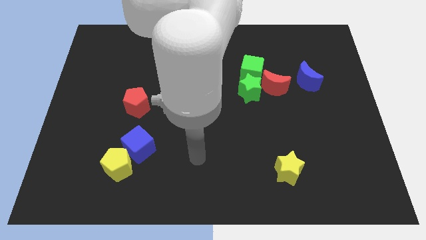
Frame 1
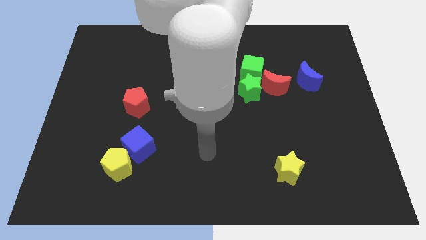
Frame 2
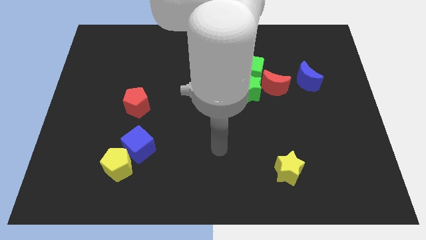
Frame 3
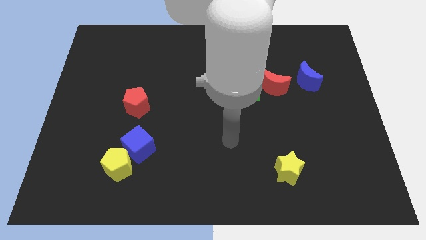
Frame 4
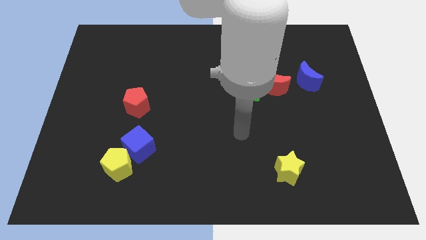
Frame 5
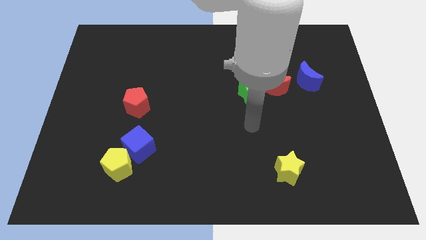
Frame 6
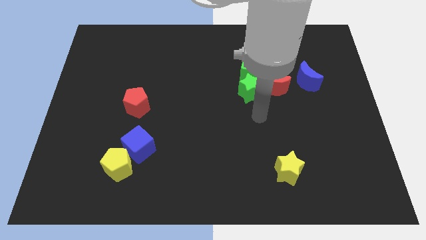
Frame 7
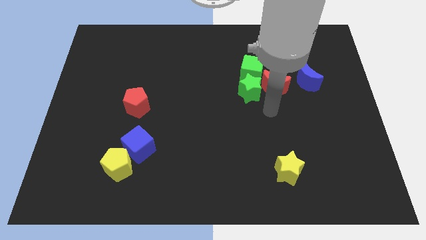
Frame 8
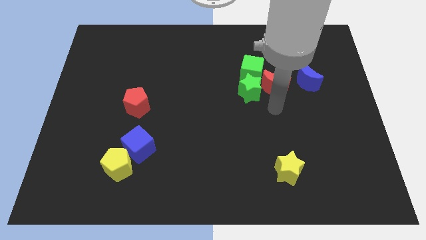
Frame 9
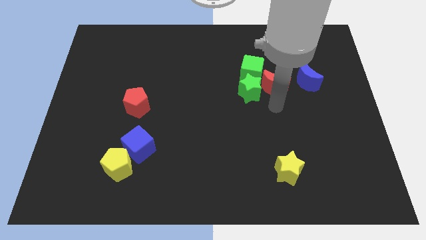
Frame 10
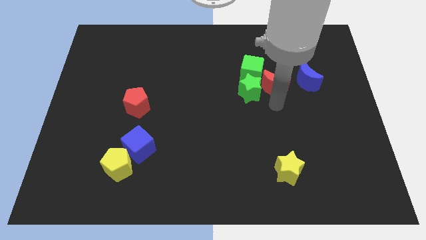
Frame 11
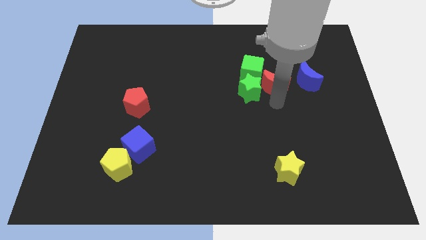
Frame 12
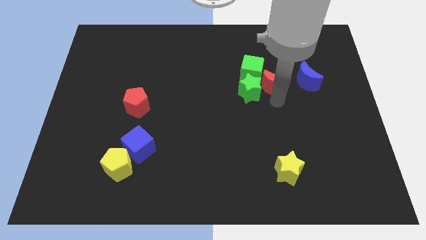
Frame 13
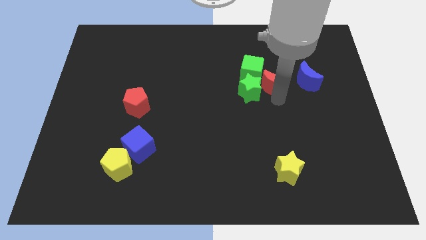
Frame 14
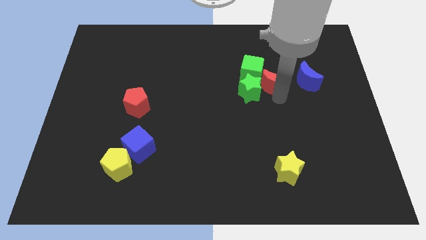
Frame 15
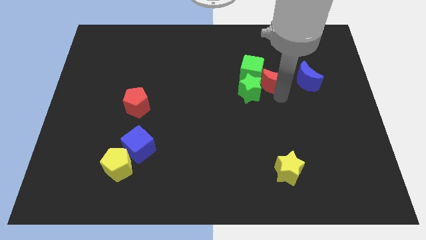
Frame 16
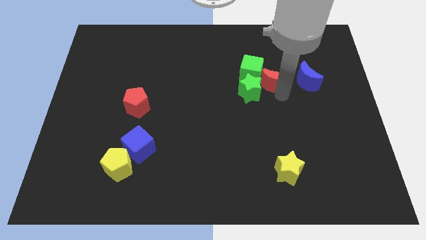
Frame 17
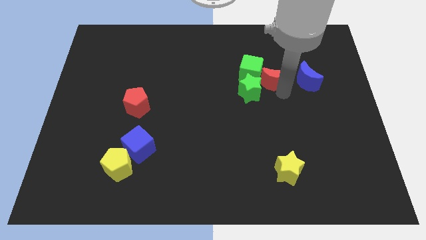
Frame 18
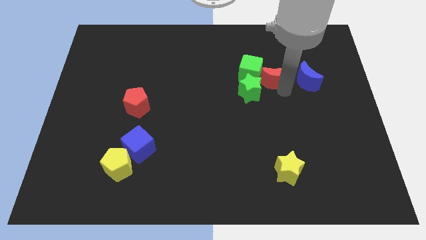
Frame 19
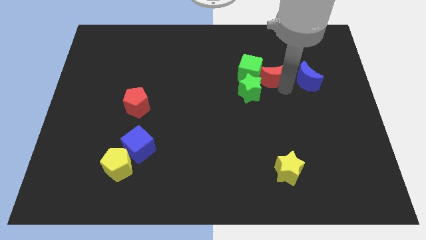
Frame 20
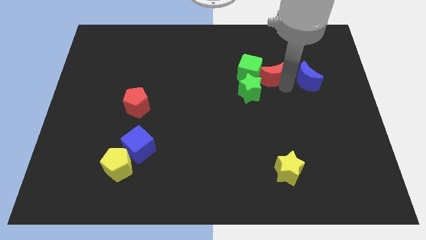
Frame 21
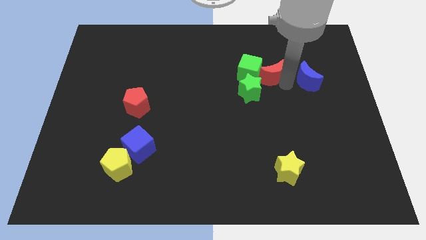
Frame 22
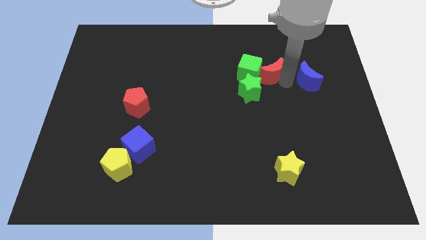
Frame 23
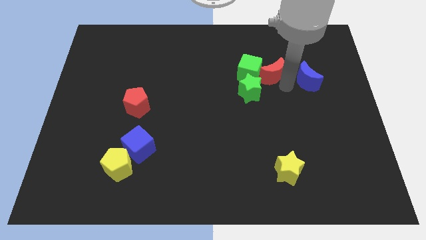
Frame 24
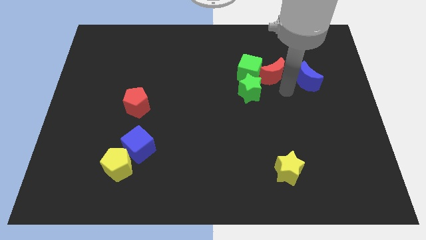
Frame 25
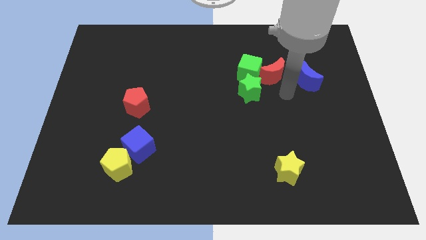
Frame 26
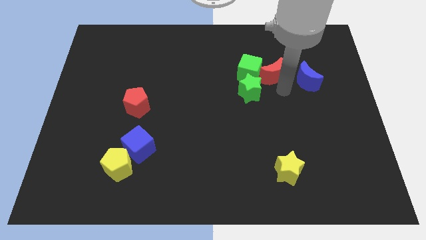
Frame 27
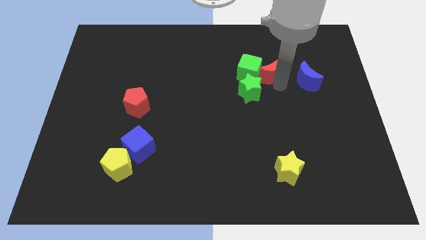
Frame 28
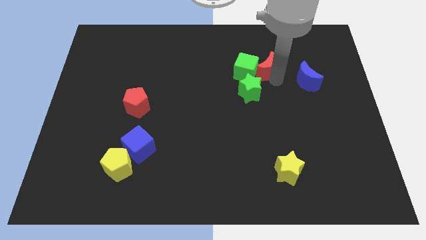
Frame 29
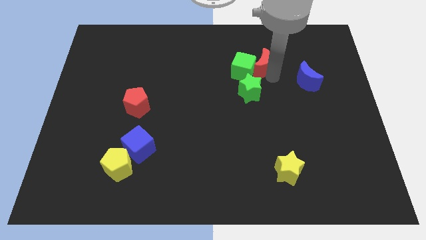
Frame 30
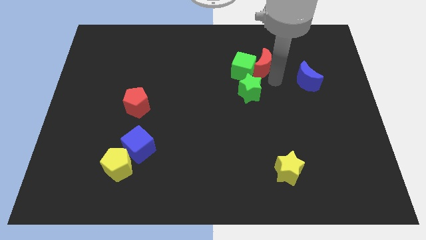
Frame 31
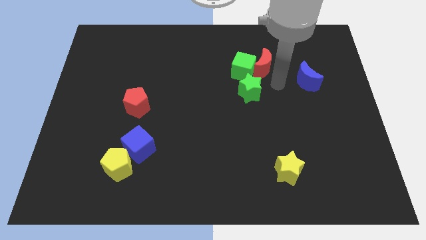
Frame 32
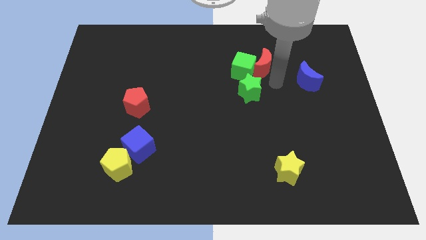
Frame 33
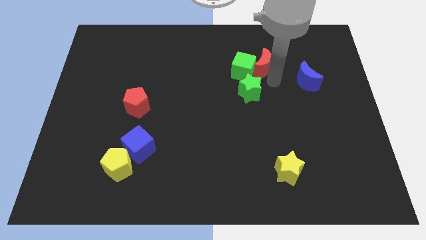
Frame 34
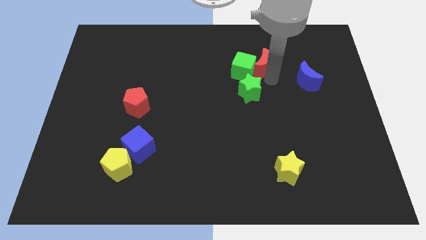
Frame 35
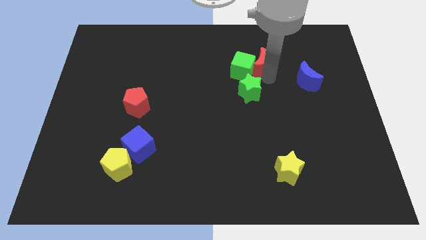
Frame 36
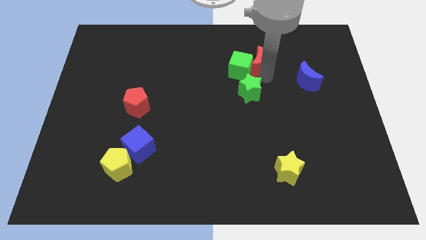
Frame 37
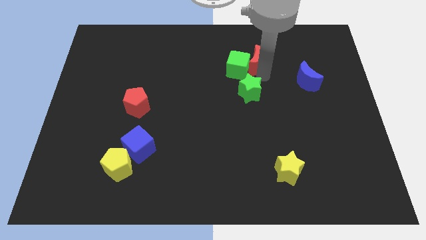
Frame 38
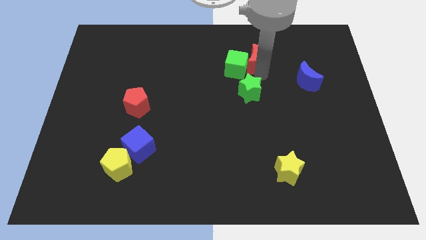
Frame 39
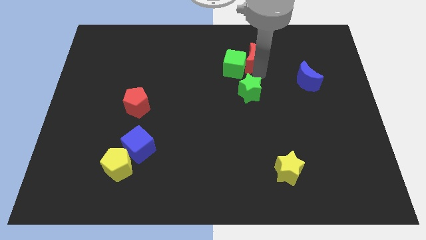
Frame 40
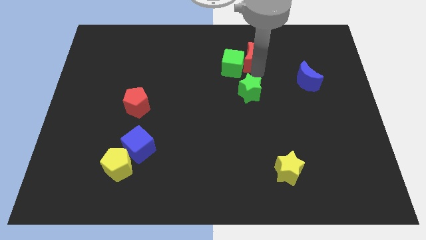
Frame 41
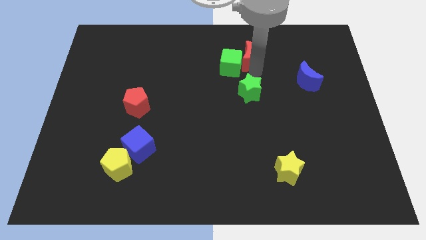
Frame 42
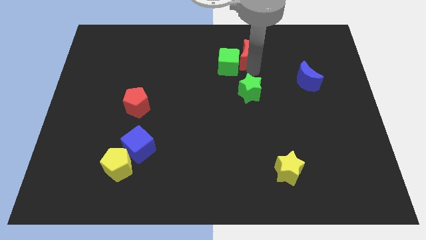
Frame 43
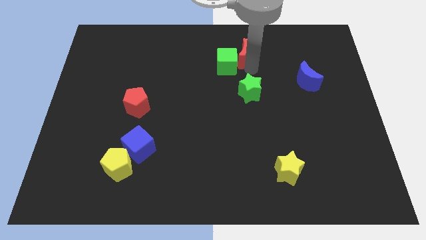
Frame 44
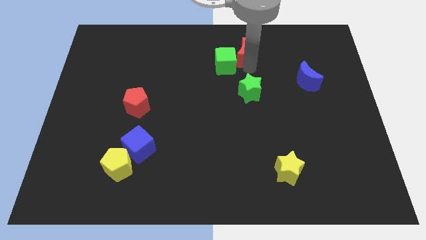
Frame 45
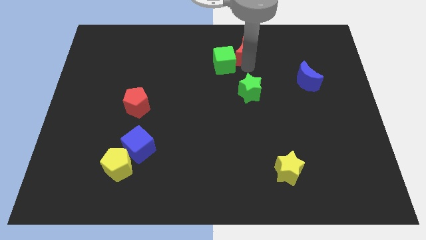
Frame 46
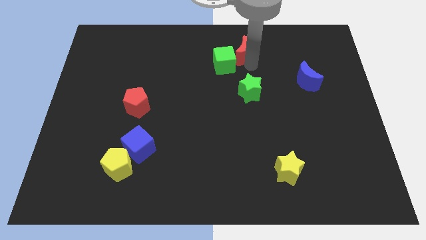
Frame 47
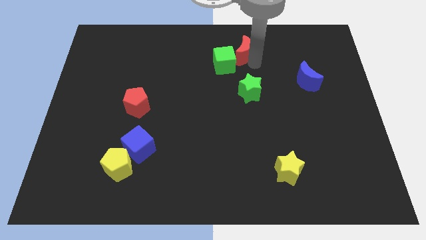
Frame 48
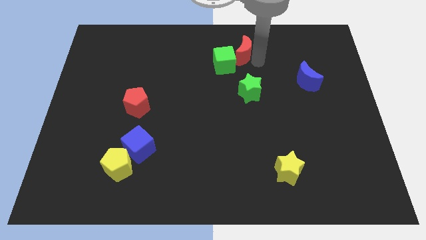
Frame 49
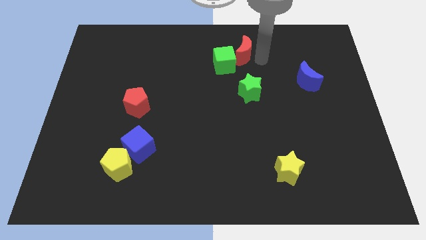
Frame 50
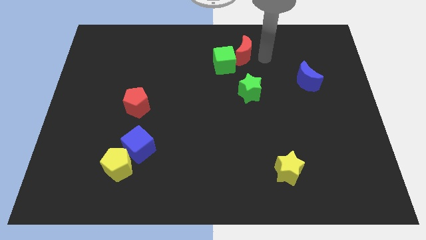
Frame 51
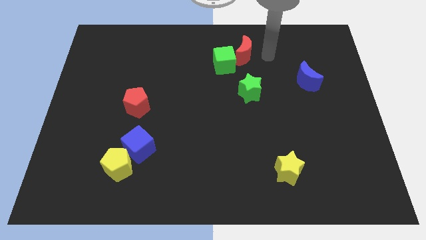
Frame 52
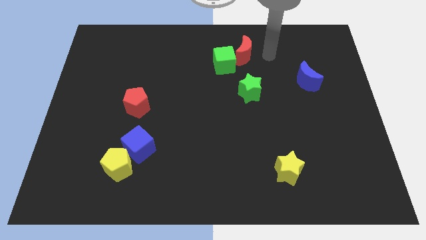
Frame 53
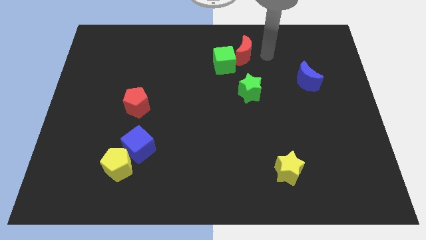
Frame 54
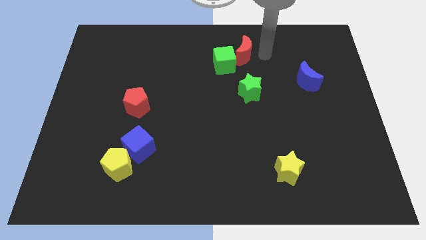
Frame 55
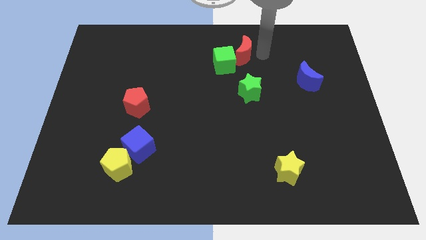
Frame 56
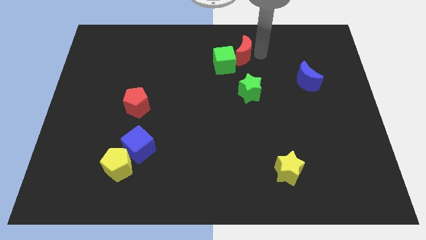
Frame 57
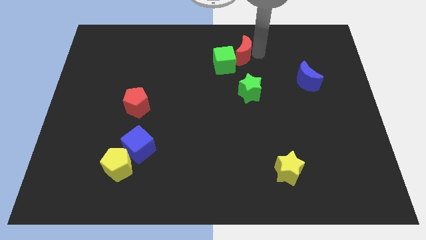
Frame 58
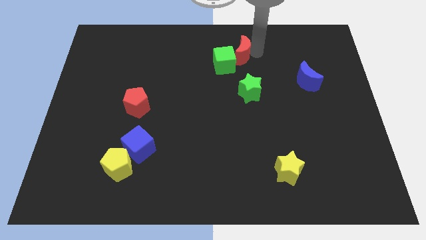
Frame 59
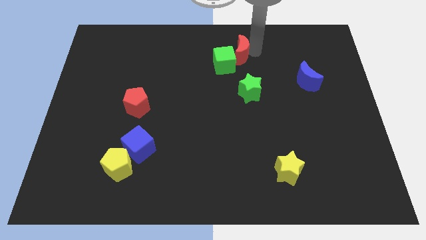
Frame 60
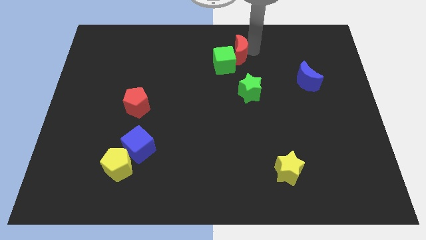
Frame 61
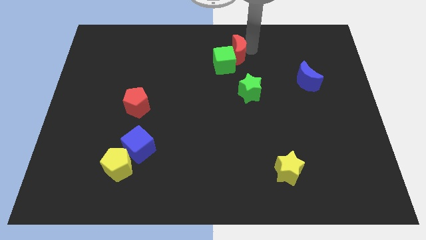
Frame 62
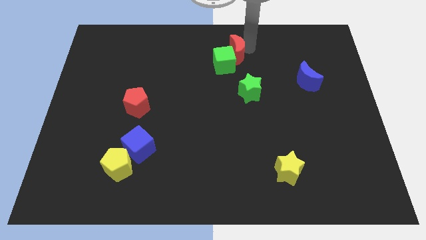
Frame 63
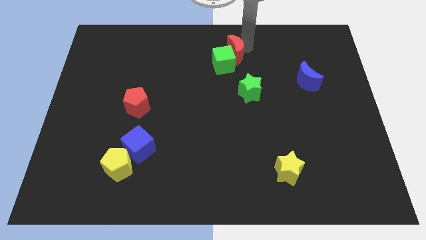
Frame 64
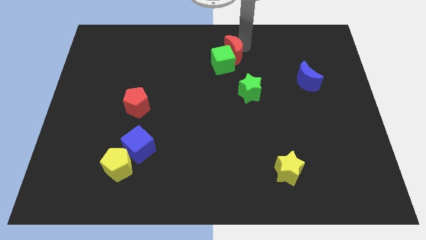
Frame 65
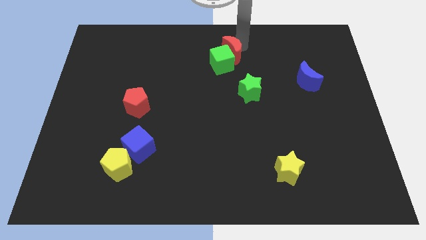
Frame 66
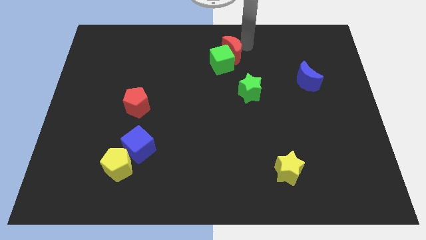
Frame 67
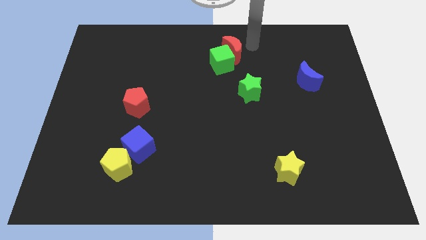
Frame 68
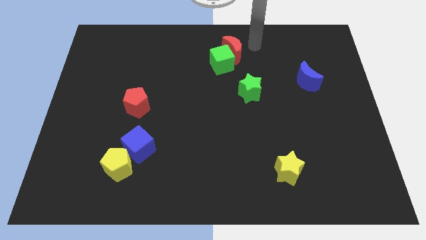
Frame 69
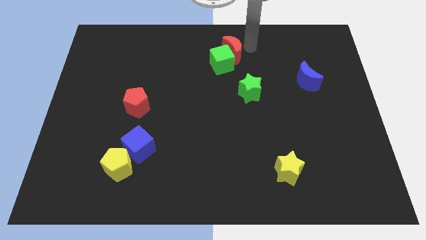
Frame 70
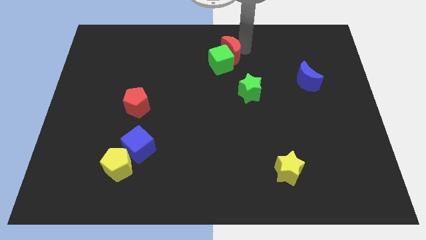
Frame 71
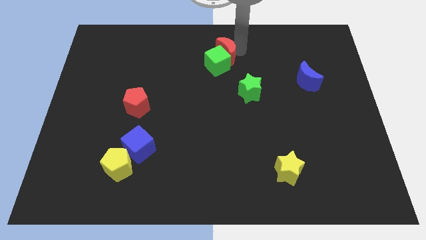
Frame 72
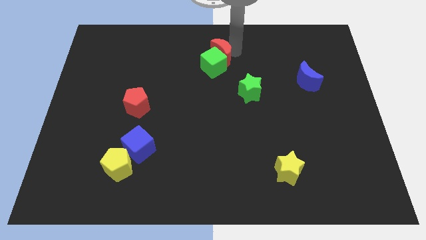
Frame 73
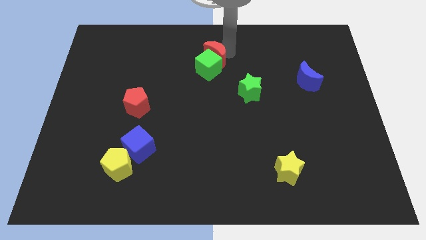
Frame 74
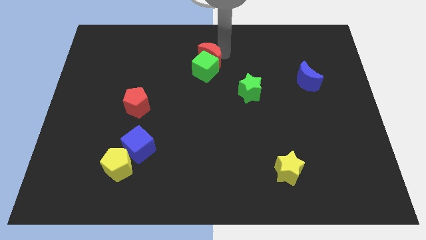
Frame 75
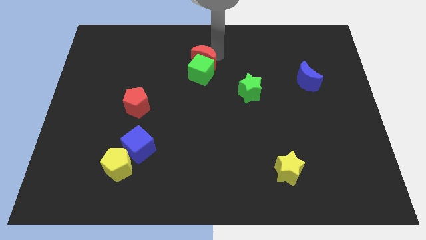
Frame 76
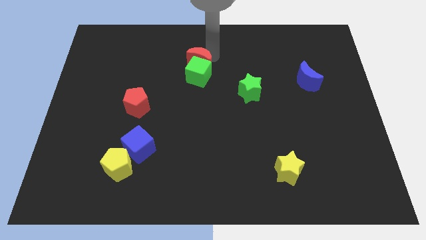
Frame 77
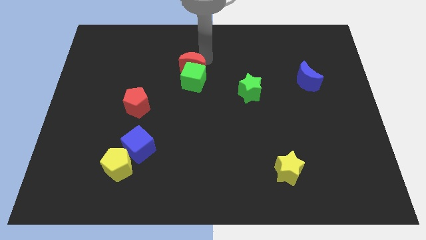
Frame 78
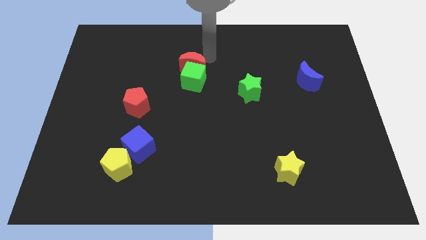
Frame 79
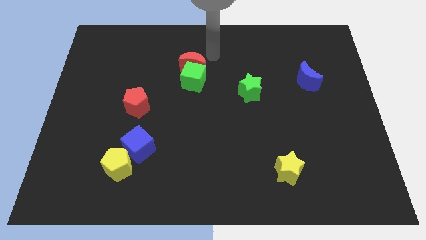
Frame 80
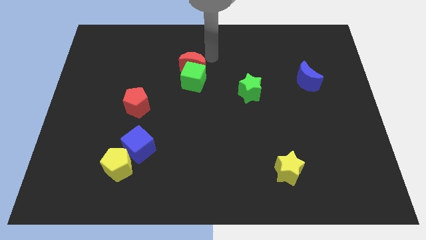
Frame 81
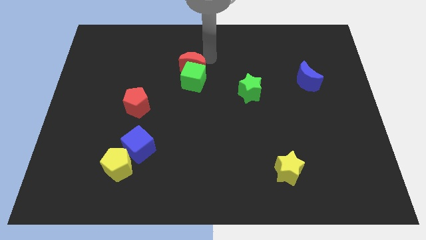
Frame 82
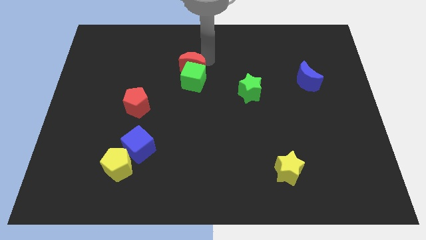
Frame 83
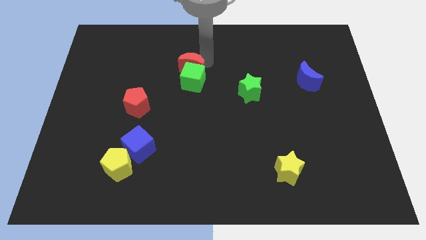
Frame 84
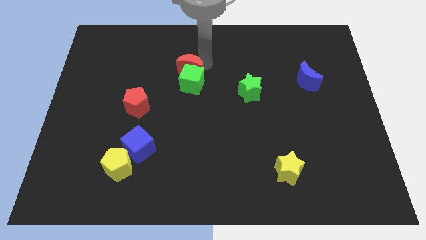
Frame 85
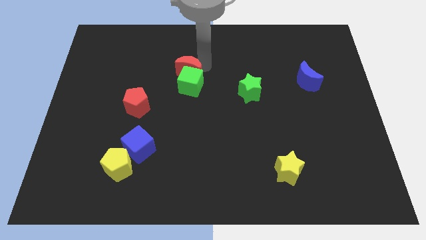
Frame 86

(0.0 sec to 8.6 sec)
move the red moon to the left
